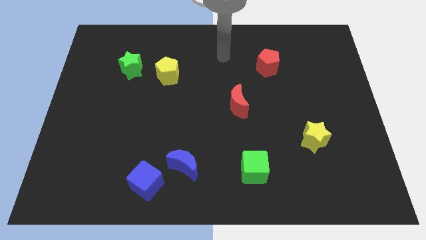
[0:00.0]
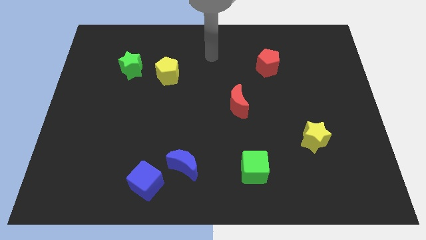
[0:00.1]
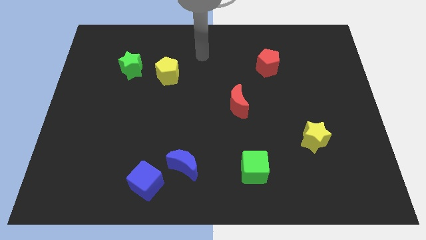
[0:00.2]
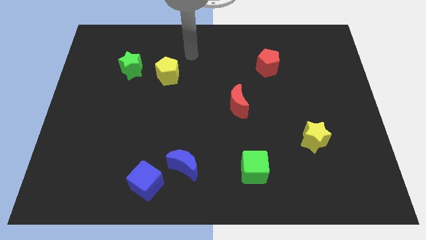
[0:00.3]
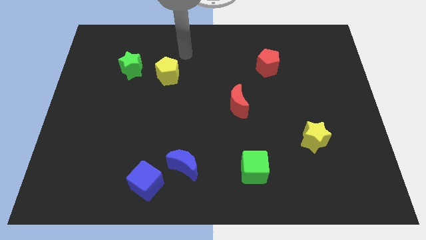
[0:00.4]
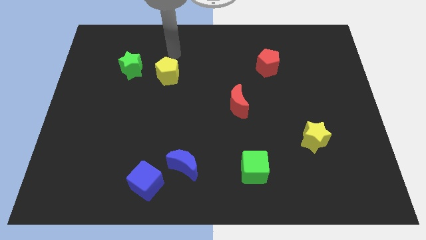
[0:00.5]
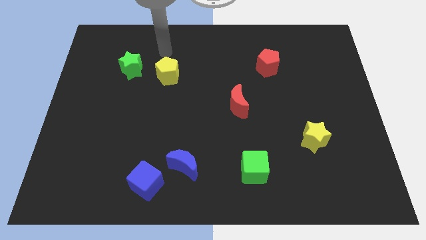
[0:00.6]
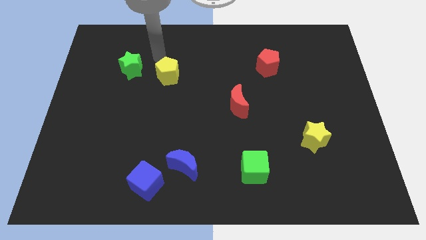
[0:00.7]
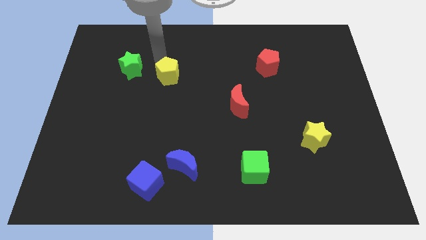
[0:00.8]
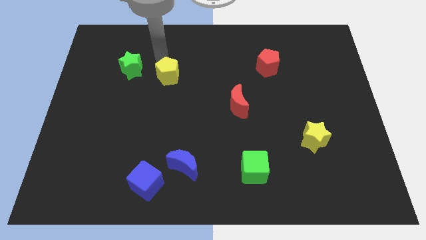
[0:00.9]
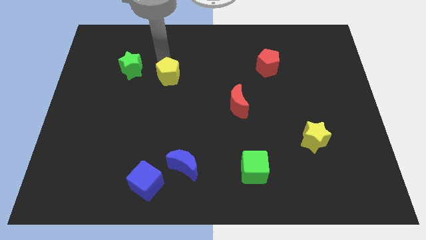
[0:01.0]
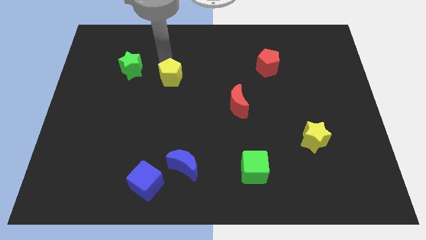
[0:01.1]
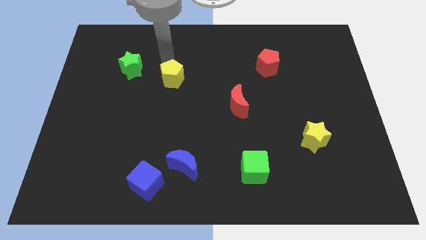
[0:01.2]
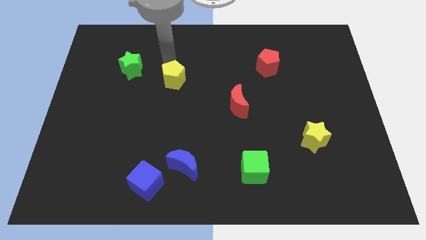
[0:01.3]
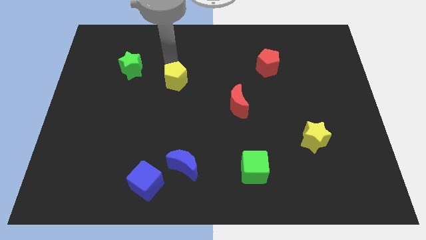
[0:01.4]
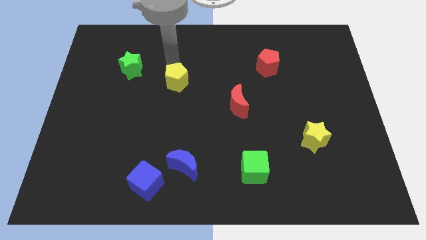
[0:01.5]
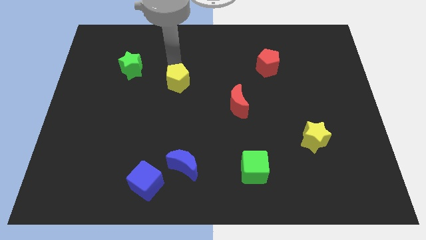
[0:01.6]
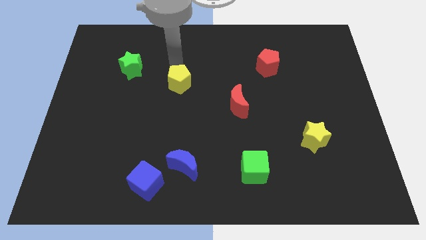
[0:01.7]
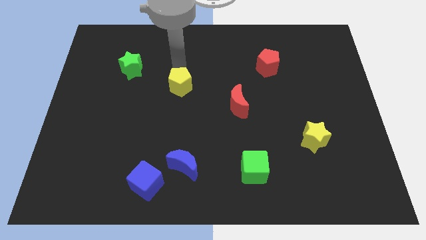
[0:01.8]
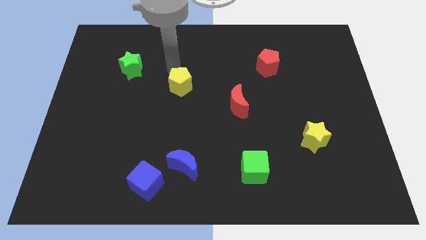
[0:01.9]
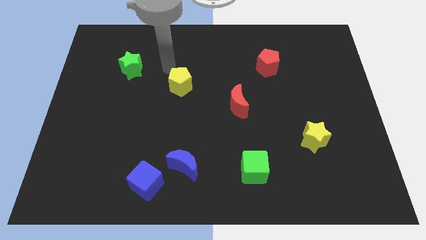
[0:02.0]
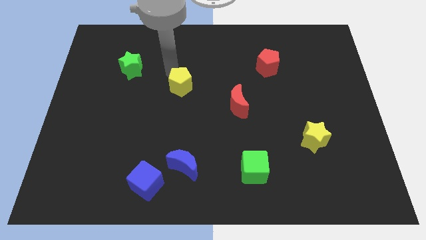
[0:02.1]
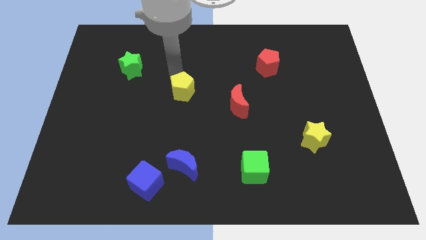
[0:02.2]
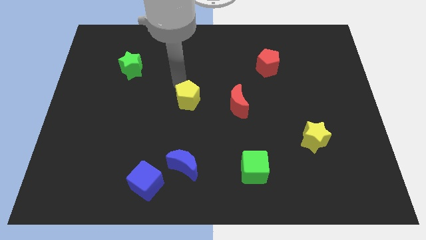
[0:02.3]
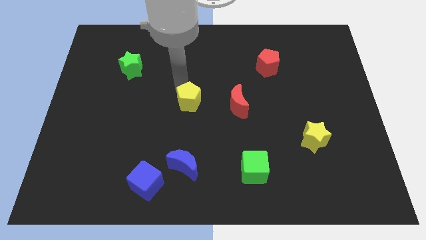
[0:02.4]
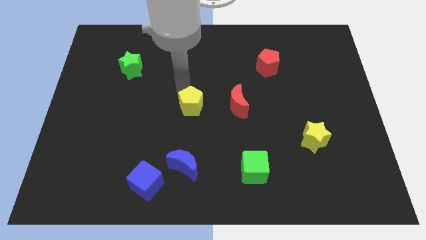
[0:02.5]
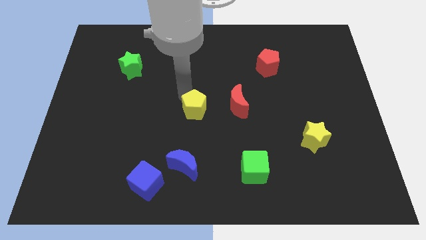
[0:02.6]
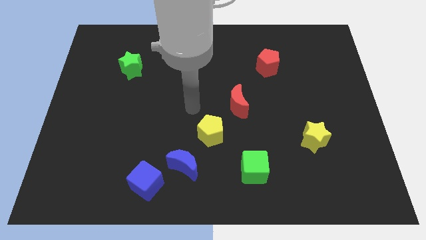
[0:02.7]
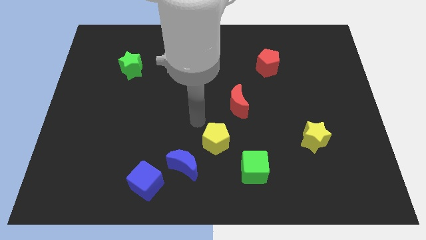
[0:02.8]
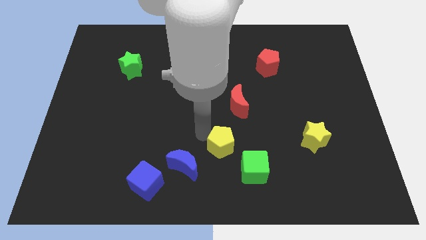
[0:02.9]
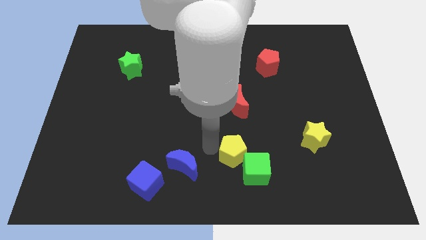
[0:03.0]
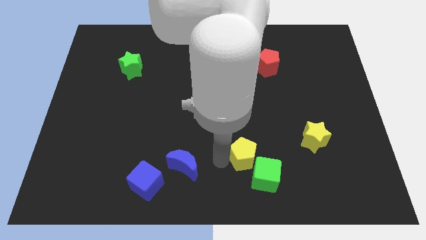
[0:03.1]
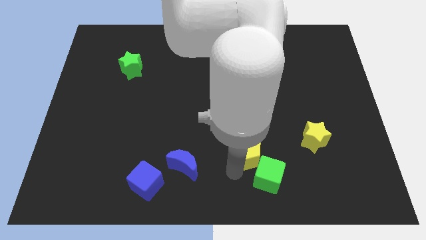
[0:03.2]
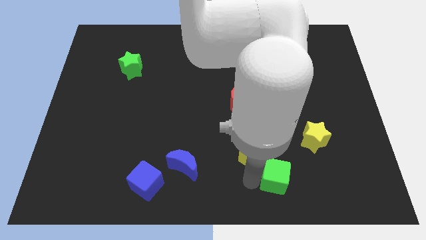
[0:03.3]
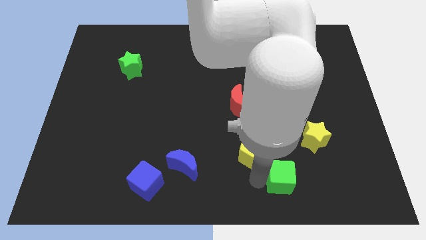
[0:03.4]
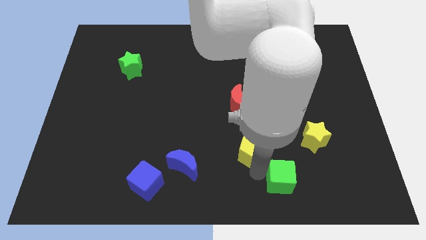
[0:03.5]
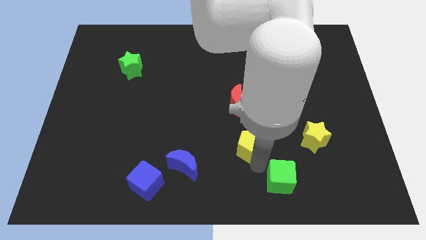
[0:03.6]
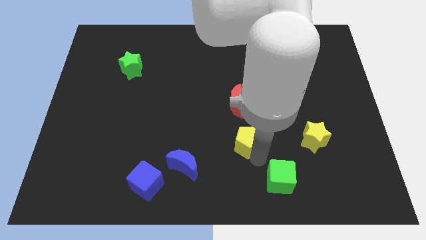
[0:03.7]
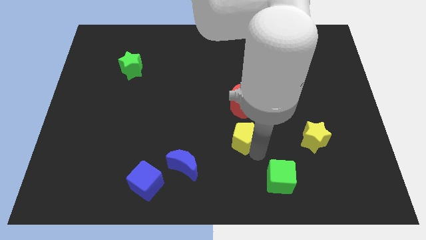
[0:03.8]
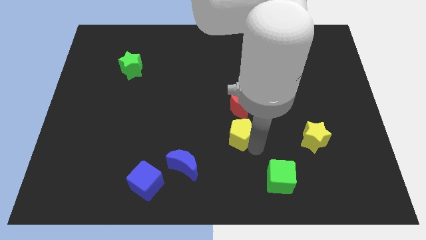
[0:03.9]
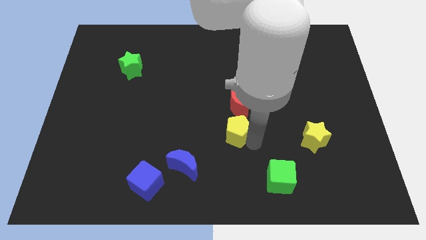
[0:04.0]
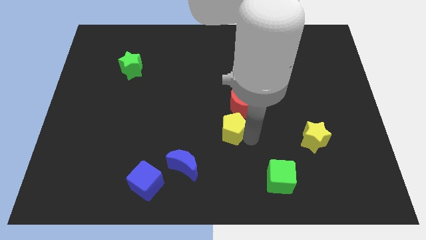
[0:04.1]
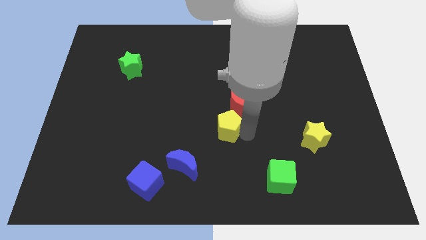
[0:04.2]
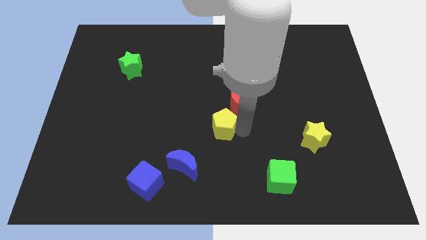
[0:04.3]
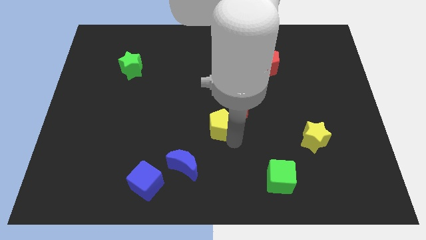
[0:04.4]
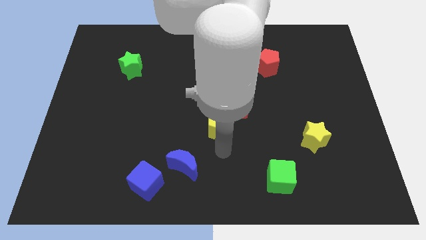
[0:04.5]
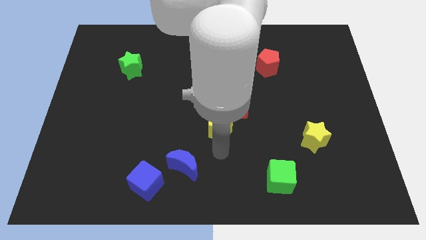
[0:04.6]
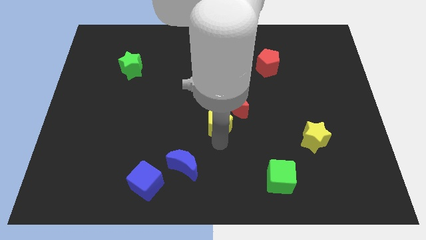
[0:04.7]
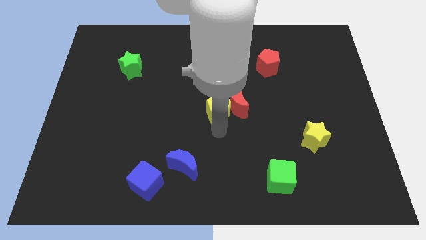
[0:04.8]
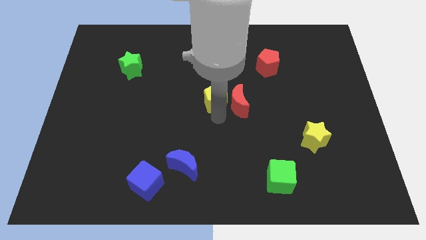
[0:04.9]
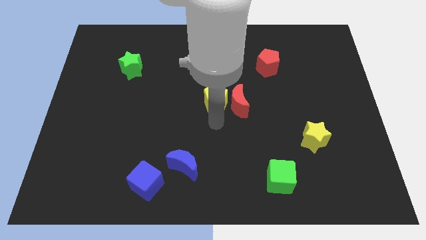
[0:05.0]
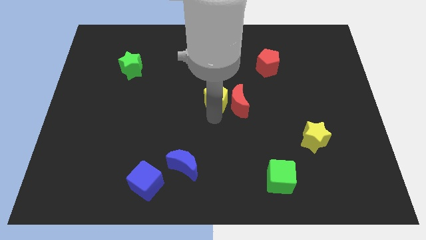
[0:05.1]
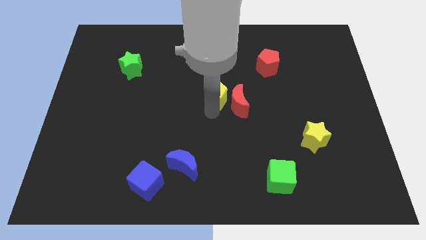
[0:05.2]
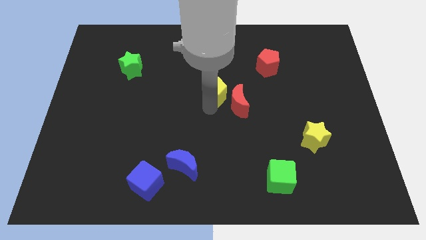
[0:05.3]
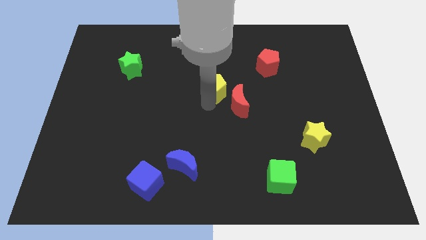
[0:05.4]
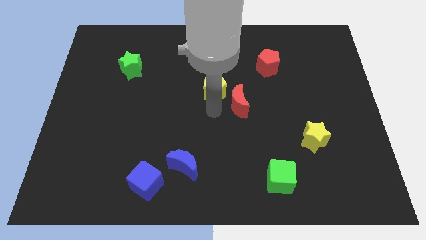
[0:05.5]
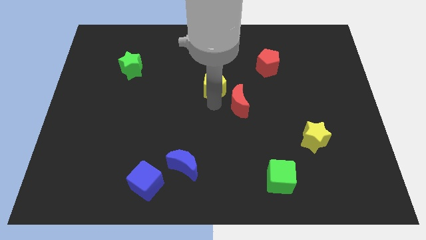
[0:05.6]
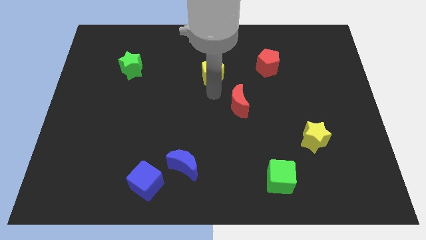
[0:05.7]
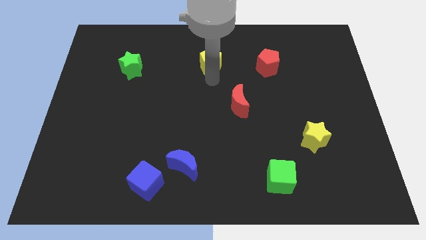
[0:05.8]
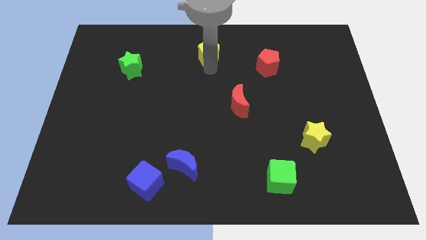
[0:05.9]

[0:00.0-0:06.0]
move the yellow pentagon to the towards your base
